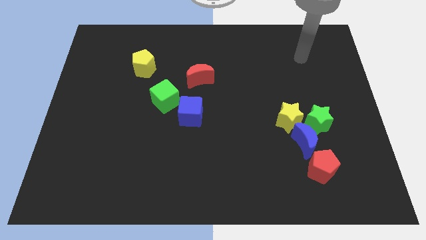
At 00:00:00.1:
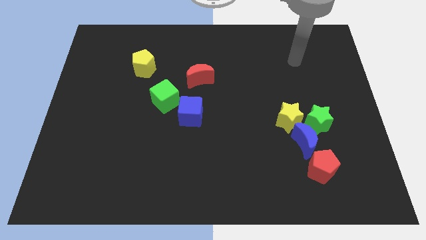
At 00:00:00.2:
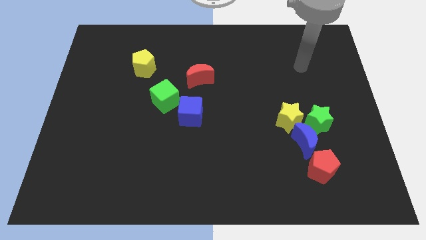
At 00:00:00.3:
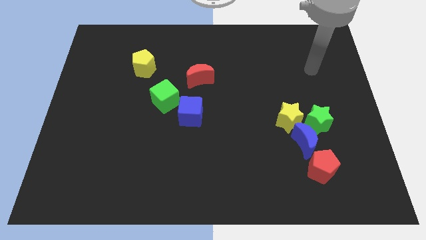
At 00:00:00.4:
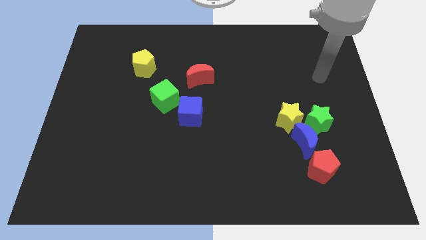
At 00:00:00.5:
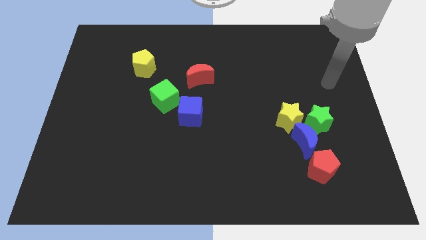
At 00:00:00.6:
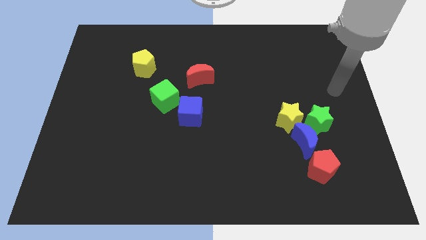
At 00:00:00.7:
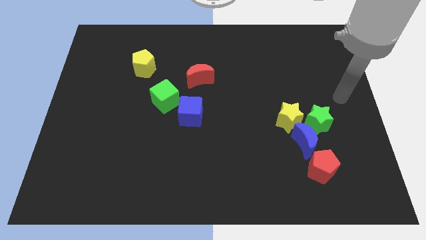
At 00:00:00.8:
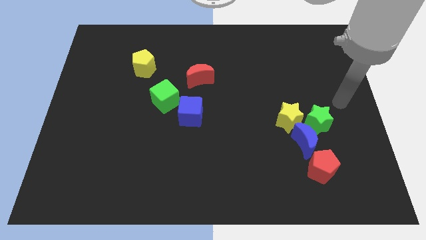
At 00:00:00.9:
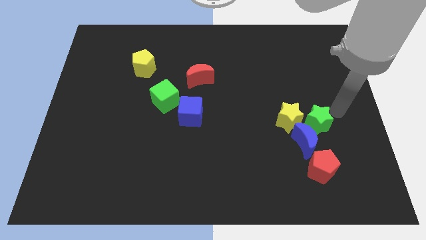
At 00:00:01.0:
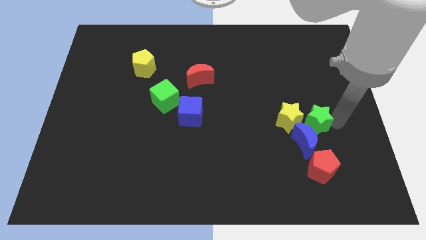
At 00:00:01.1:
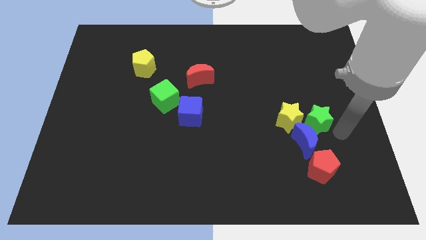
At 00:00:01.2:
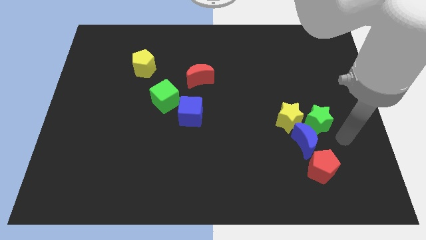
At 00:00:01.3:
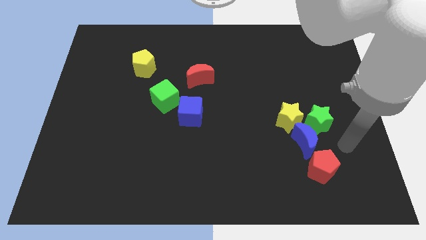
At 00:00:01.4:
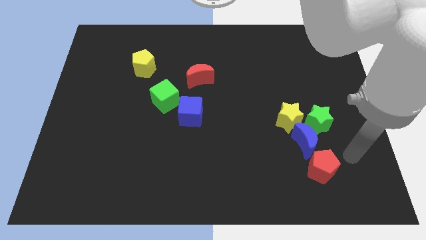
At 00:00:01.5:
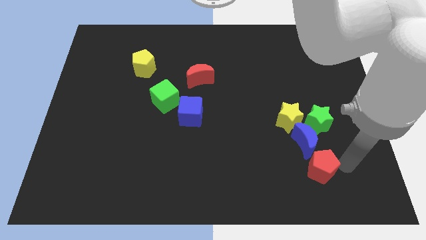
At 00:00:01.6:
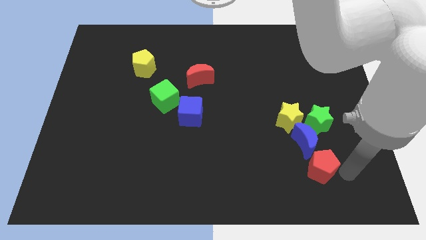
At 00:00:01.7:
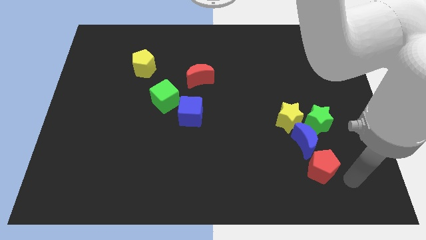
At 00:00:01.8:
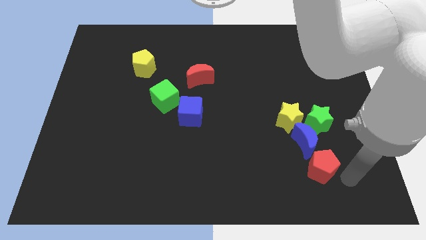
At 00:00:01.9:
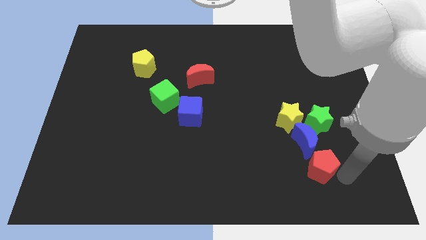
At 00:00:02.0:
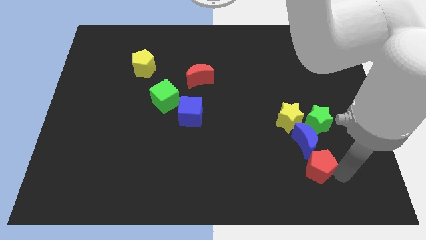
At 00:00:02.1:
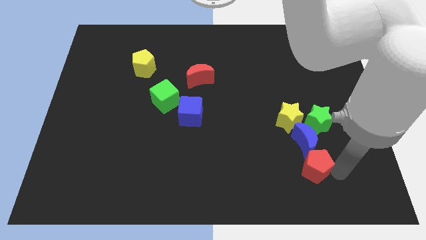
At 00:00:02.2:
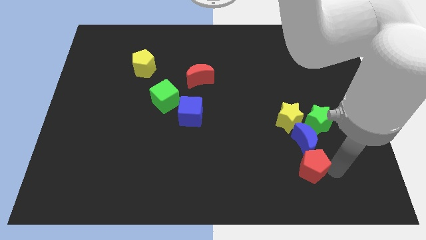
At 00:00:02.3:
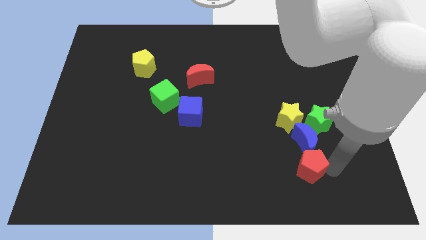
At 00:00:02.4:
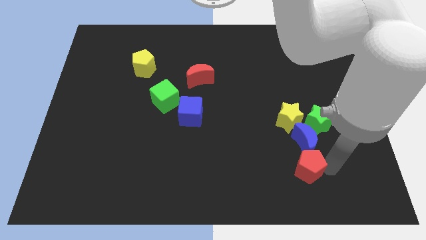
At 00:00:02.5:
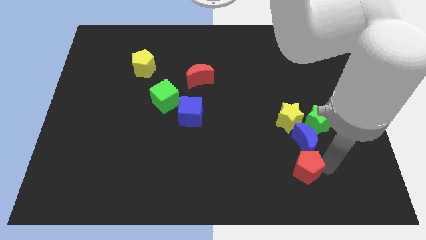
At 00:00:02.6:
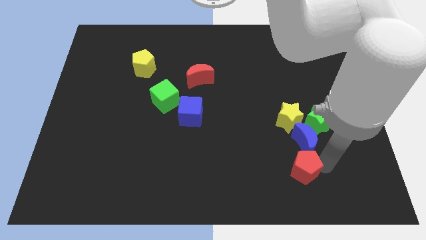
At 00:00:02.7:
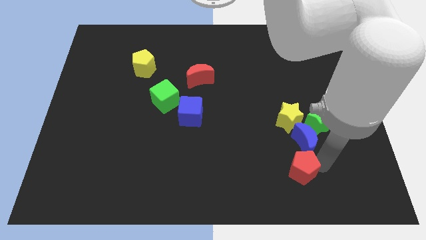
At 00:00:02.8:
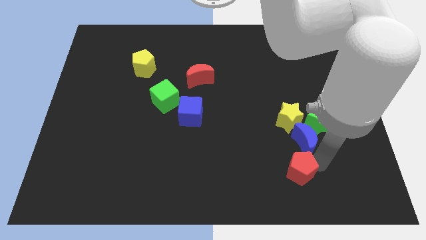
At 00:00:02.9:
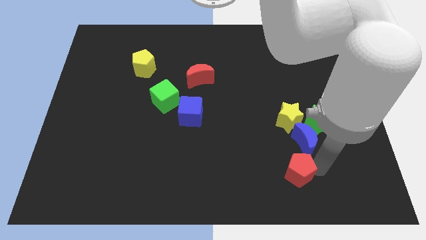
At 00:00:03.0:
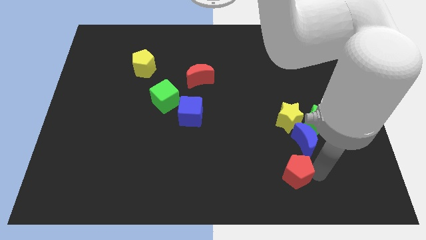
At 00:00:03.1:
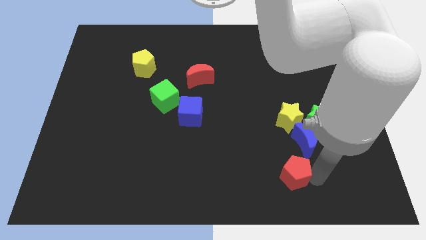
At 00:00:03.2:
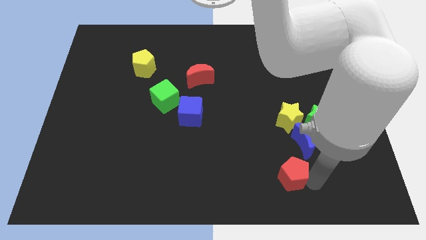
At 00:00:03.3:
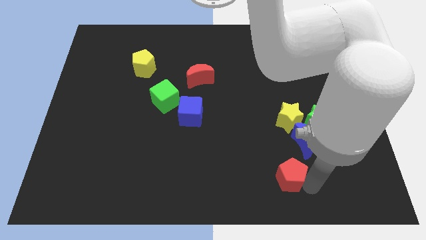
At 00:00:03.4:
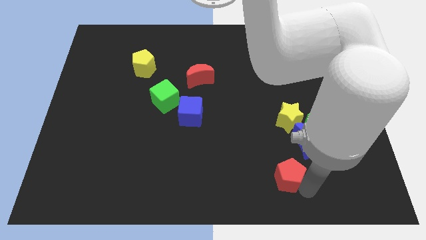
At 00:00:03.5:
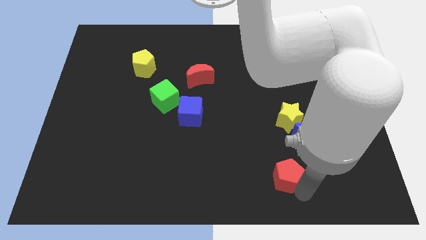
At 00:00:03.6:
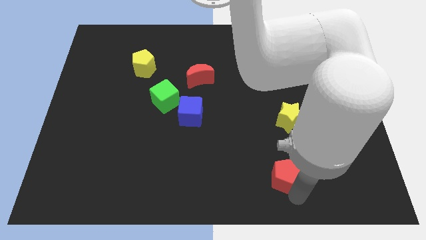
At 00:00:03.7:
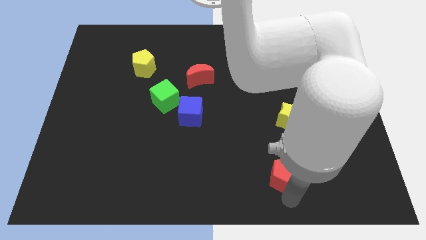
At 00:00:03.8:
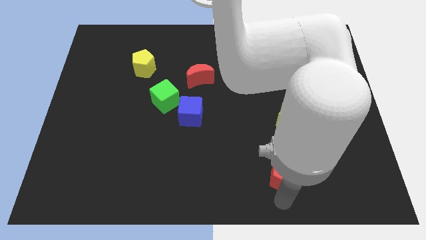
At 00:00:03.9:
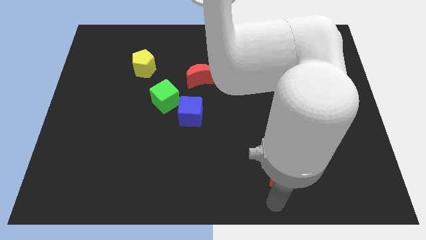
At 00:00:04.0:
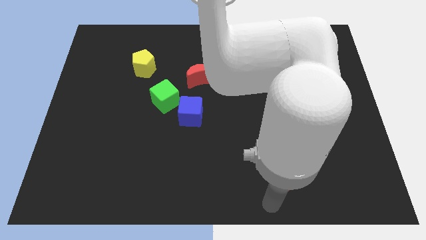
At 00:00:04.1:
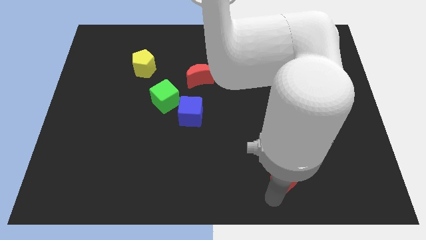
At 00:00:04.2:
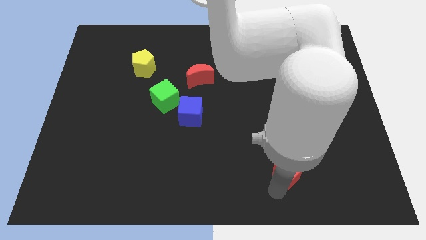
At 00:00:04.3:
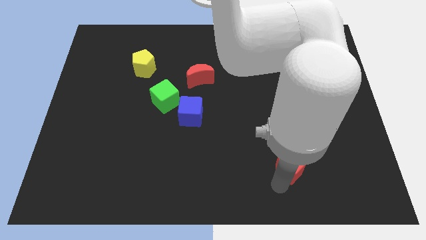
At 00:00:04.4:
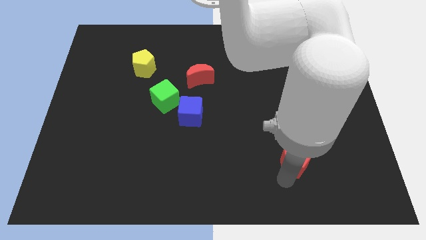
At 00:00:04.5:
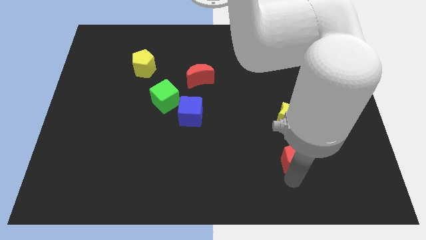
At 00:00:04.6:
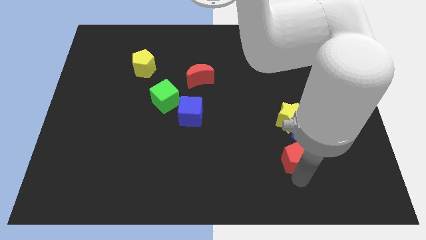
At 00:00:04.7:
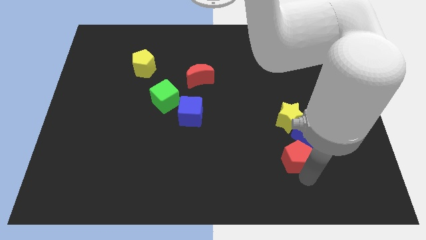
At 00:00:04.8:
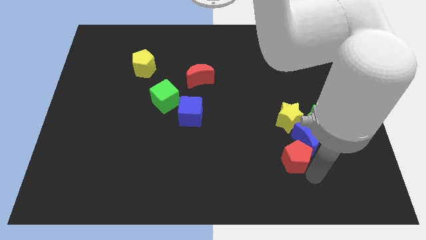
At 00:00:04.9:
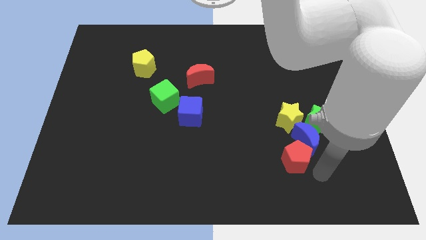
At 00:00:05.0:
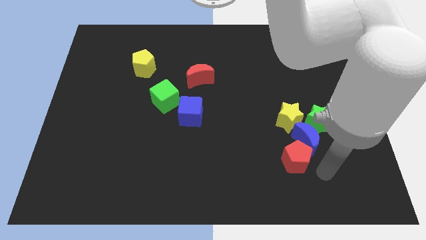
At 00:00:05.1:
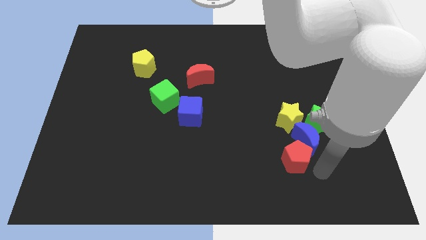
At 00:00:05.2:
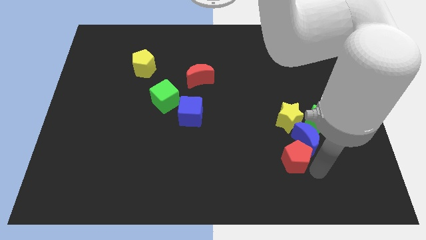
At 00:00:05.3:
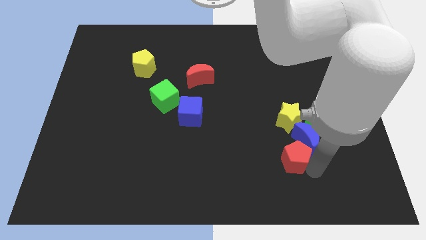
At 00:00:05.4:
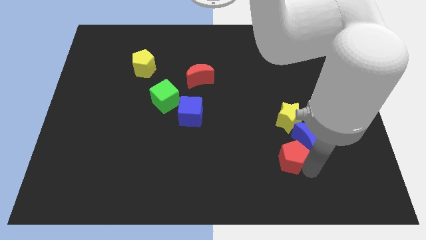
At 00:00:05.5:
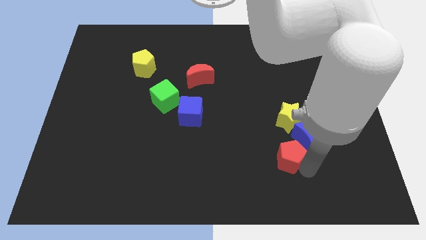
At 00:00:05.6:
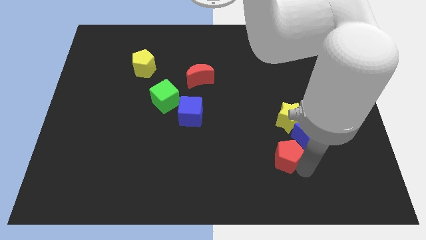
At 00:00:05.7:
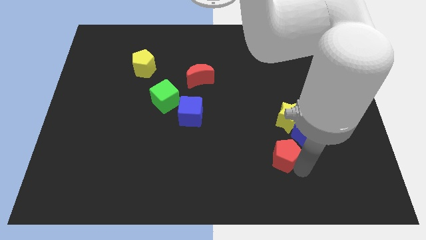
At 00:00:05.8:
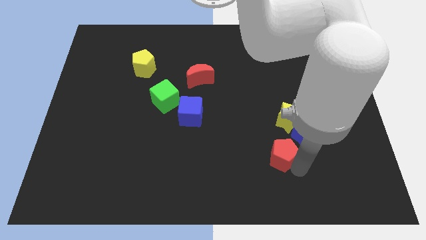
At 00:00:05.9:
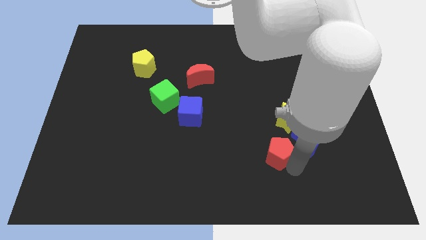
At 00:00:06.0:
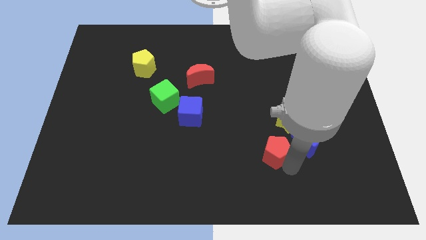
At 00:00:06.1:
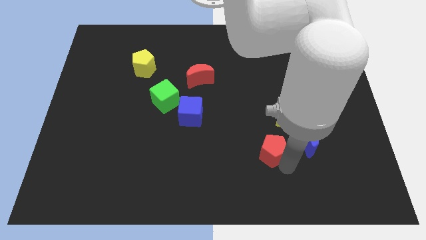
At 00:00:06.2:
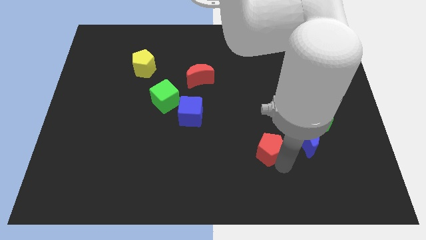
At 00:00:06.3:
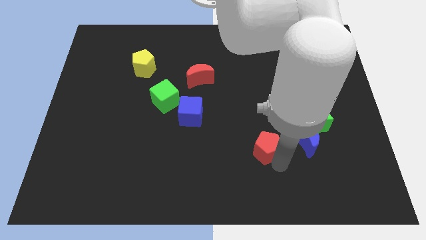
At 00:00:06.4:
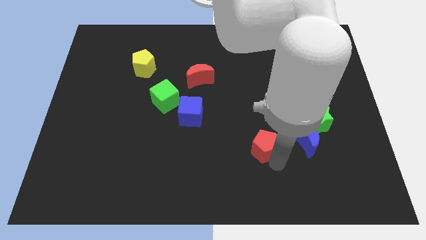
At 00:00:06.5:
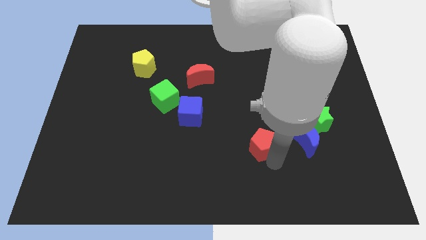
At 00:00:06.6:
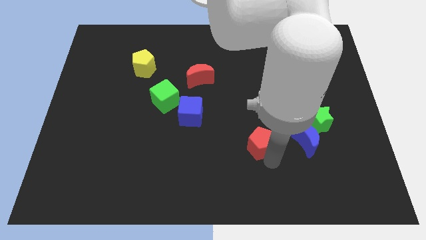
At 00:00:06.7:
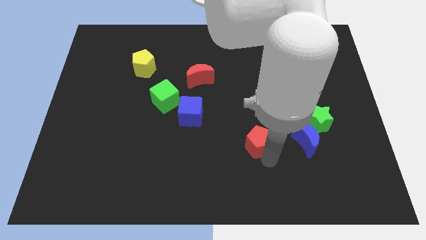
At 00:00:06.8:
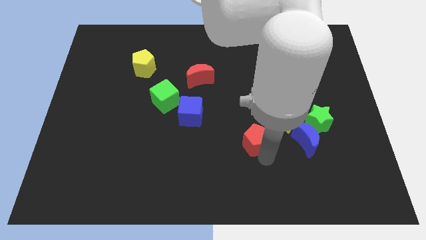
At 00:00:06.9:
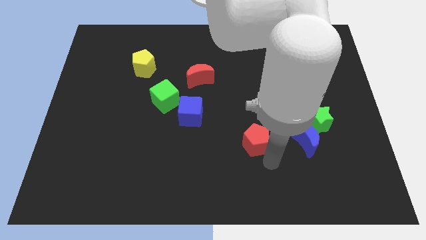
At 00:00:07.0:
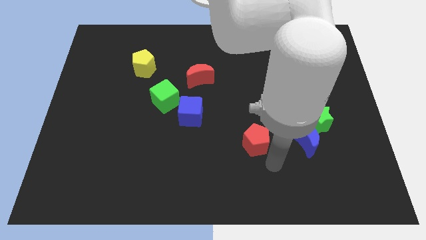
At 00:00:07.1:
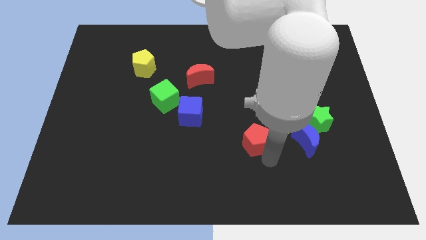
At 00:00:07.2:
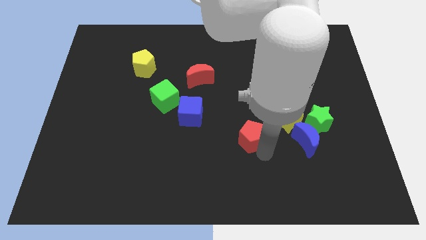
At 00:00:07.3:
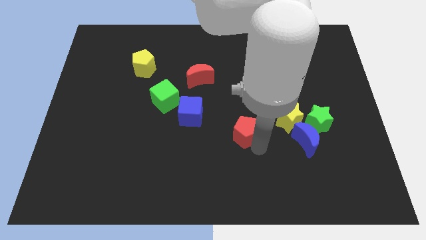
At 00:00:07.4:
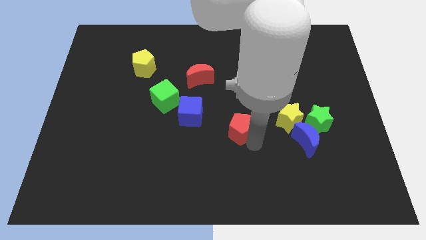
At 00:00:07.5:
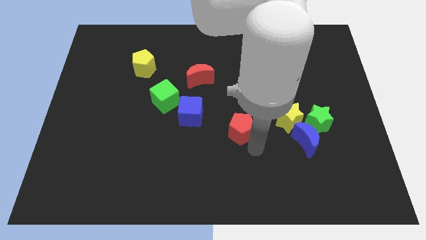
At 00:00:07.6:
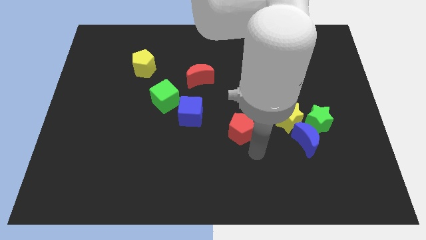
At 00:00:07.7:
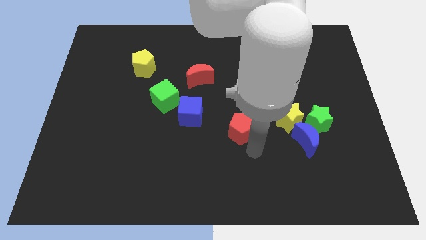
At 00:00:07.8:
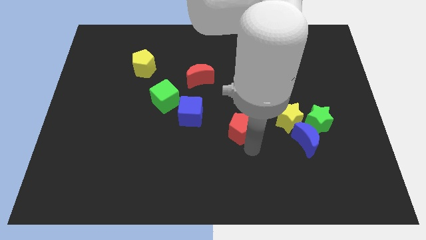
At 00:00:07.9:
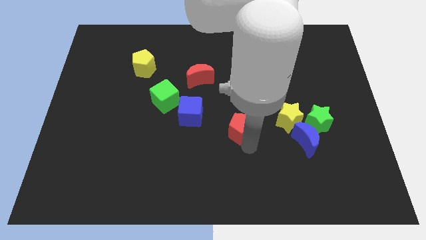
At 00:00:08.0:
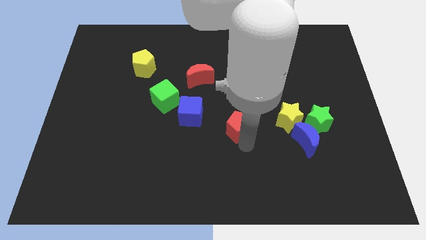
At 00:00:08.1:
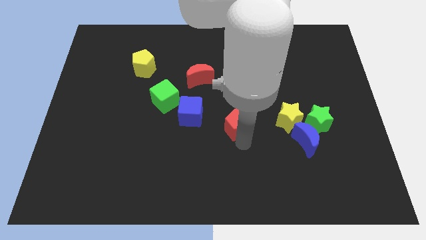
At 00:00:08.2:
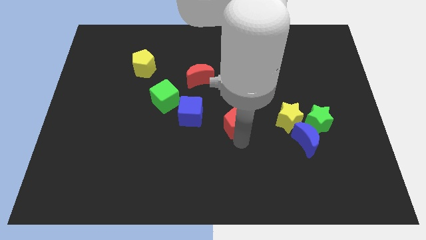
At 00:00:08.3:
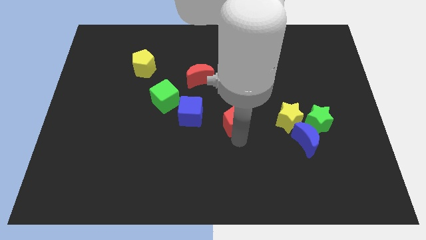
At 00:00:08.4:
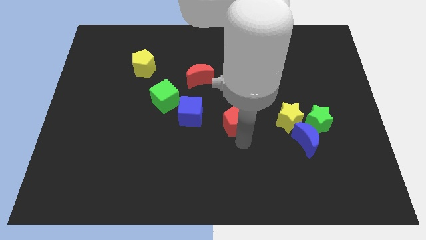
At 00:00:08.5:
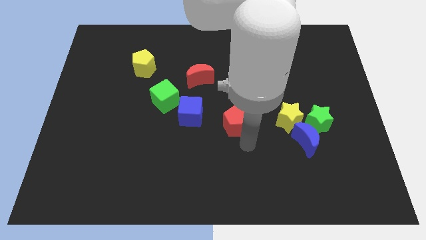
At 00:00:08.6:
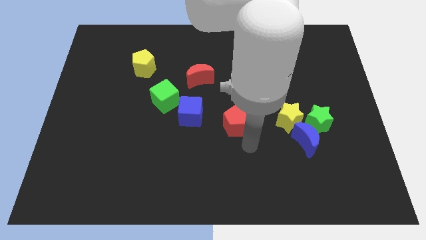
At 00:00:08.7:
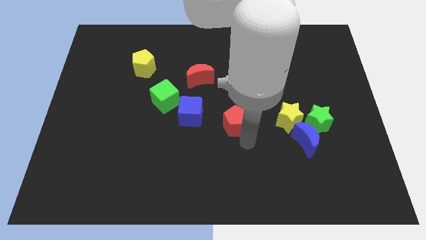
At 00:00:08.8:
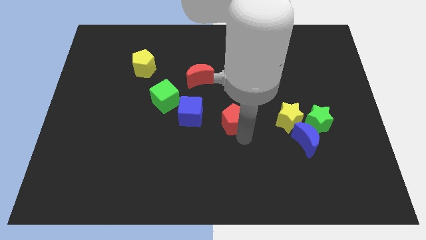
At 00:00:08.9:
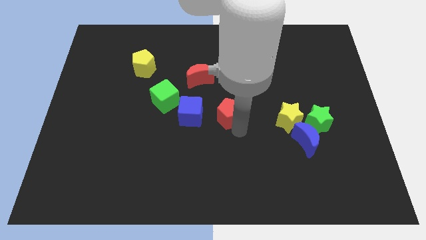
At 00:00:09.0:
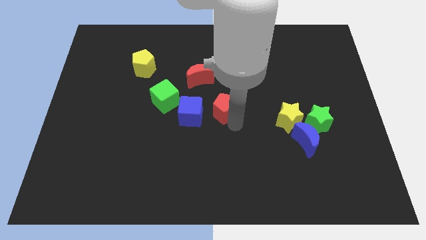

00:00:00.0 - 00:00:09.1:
slide the red pentagon diagonally up and to the right of the blue cube
